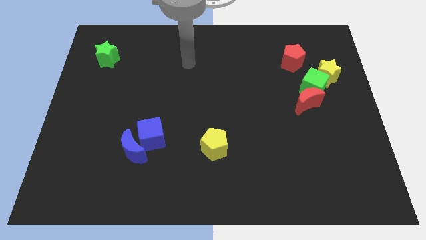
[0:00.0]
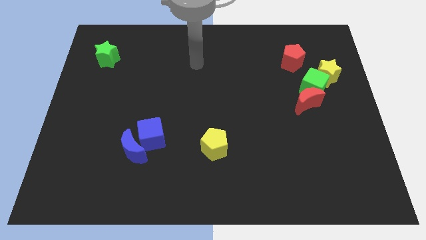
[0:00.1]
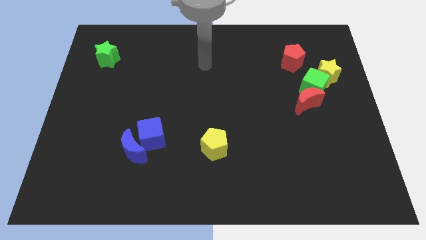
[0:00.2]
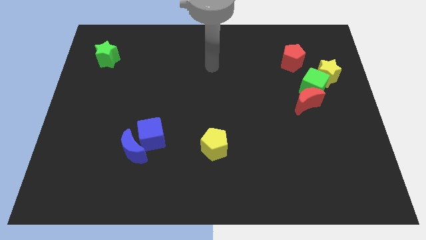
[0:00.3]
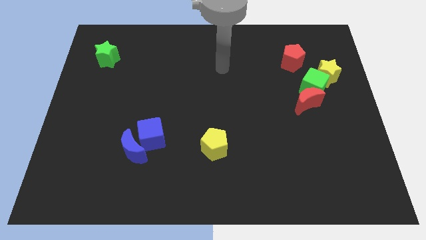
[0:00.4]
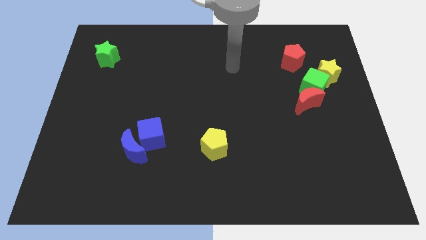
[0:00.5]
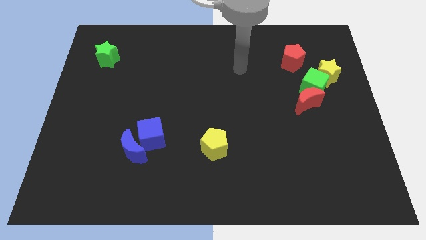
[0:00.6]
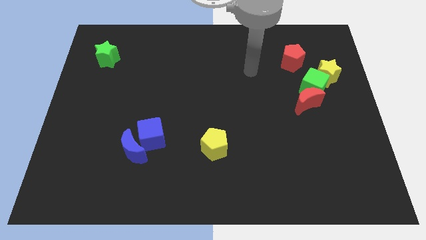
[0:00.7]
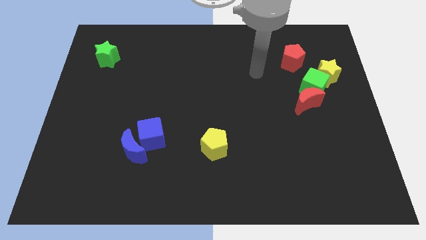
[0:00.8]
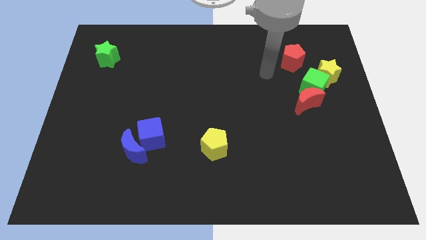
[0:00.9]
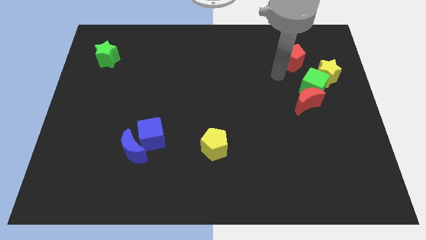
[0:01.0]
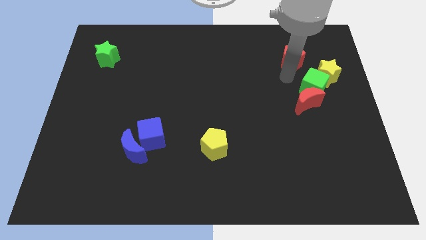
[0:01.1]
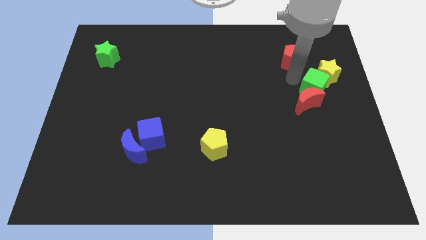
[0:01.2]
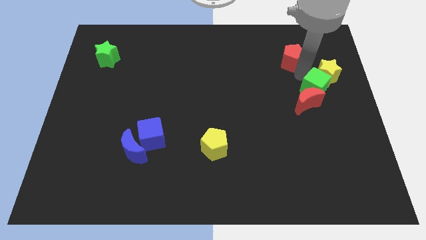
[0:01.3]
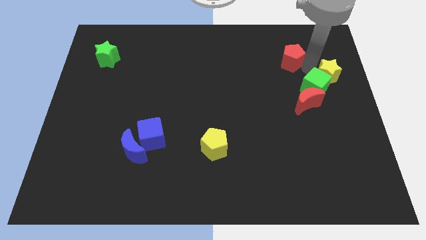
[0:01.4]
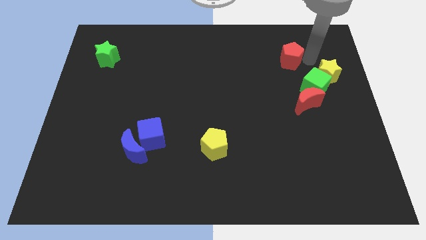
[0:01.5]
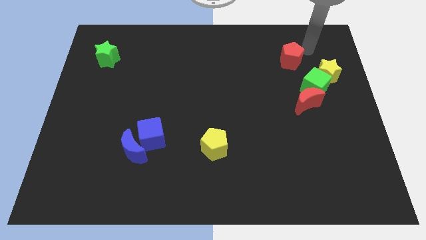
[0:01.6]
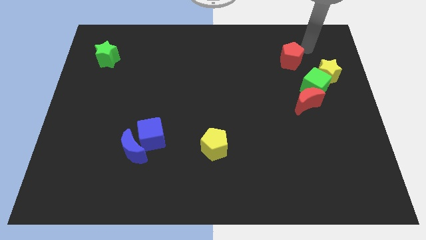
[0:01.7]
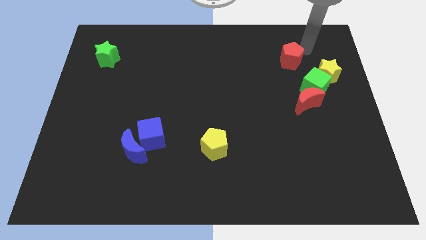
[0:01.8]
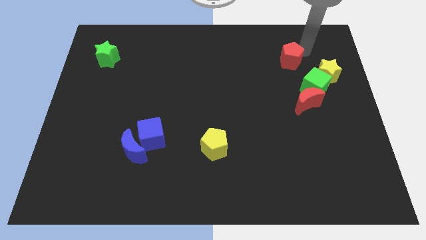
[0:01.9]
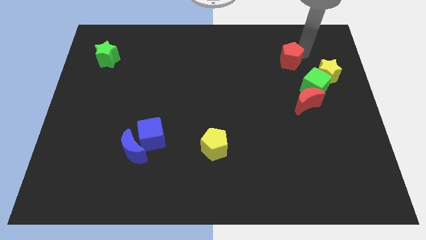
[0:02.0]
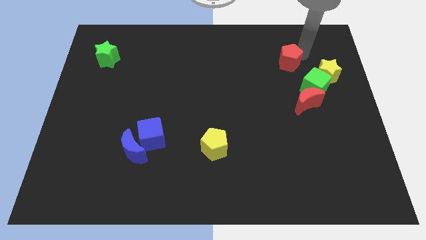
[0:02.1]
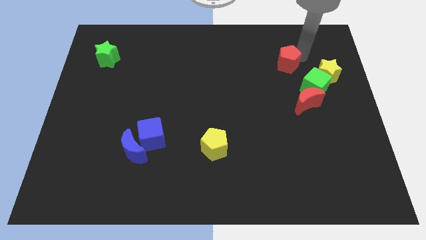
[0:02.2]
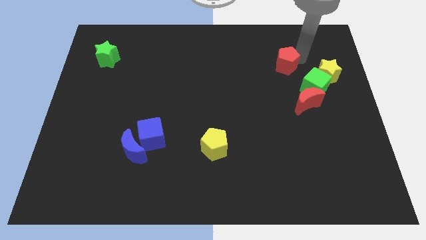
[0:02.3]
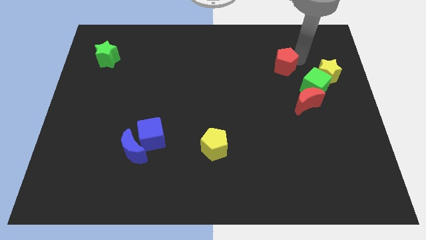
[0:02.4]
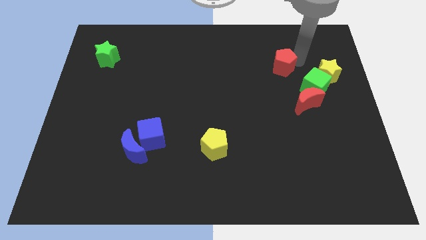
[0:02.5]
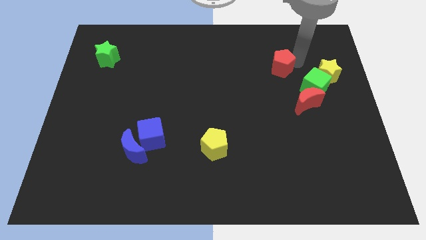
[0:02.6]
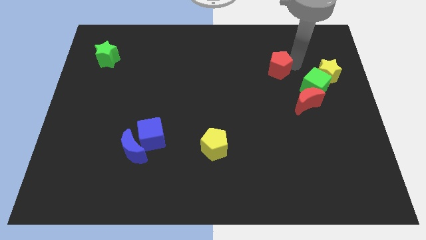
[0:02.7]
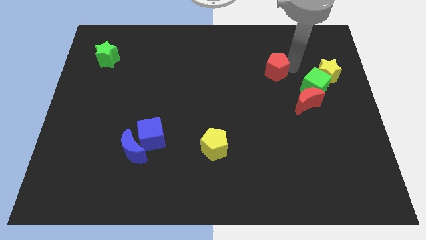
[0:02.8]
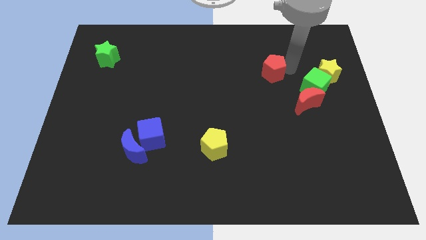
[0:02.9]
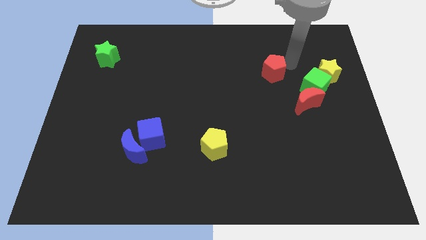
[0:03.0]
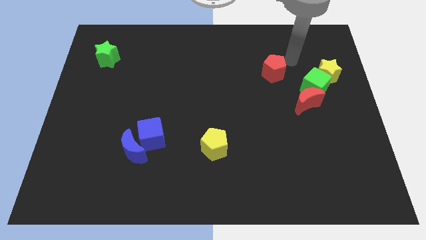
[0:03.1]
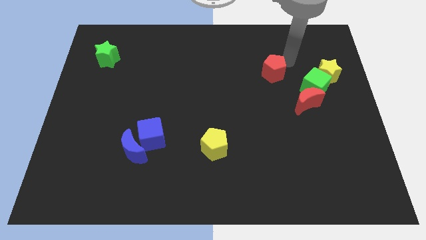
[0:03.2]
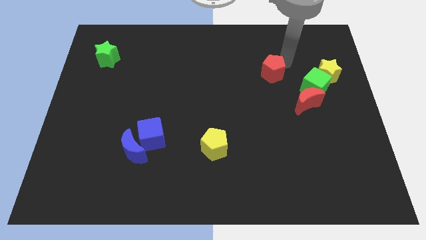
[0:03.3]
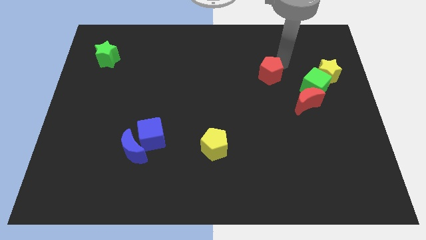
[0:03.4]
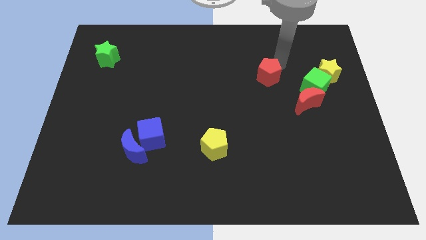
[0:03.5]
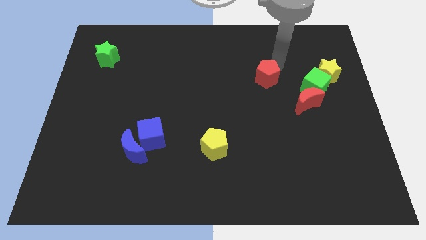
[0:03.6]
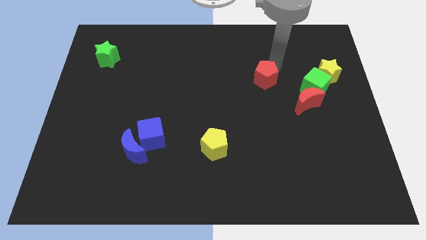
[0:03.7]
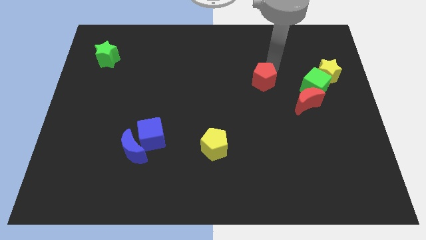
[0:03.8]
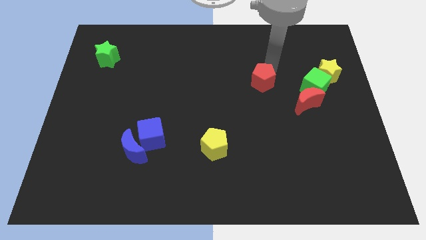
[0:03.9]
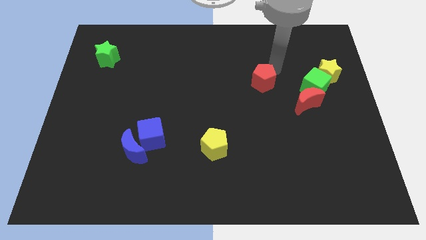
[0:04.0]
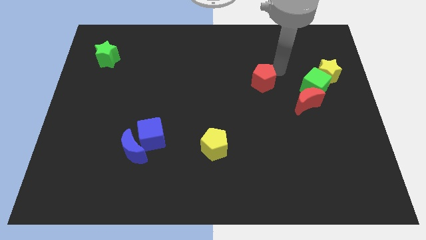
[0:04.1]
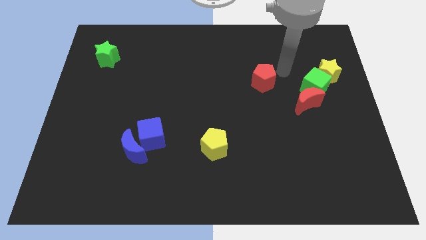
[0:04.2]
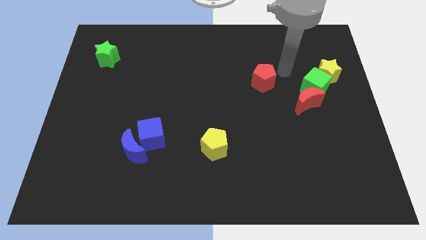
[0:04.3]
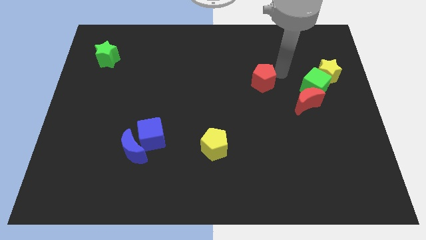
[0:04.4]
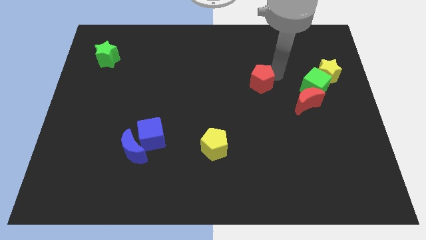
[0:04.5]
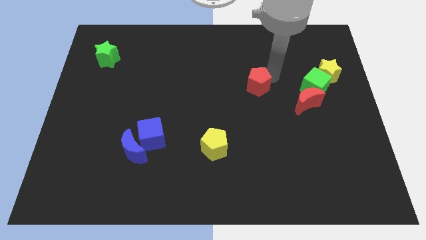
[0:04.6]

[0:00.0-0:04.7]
push the red pentagon to the center of the board

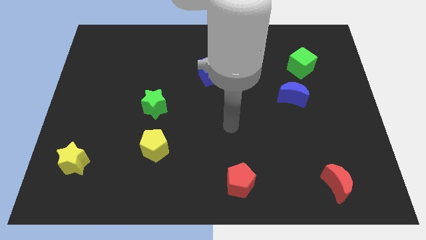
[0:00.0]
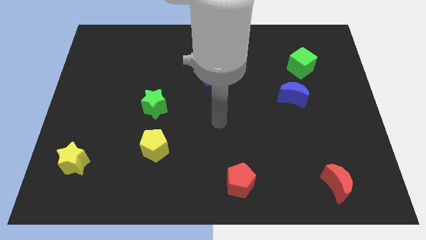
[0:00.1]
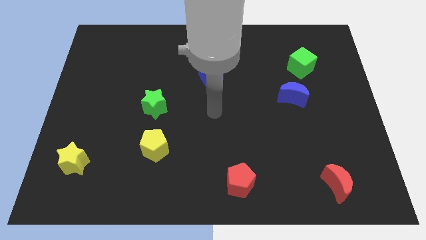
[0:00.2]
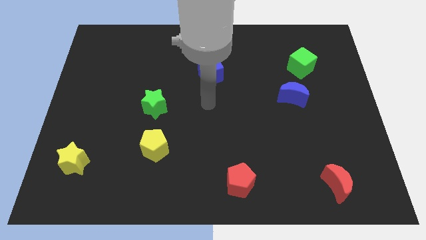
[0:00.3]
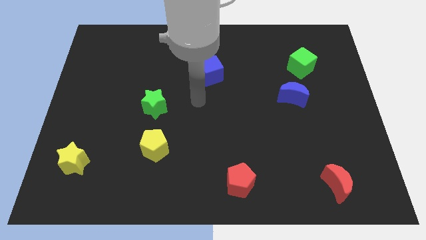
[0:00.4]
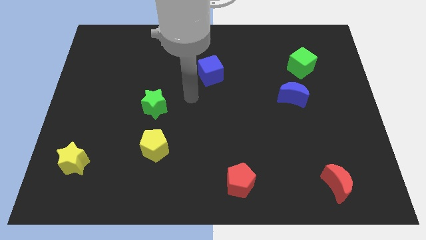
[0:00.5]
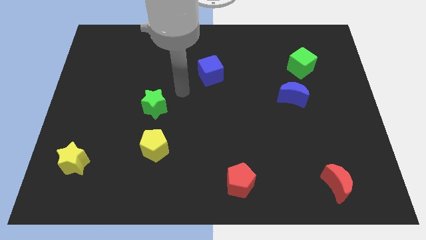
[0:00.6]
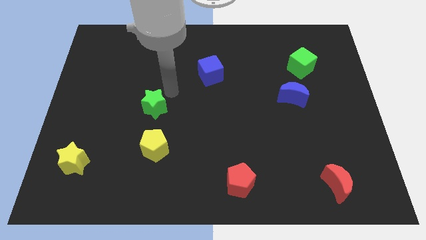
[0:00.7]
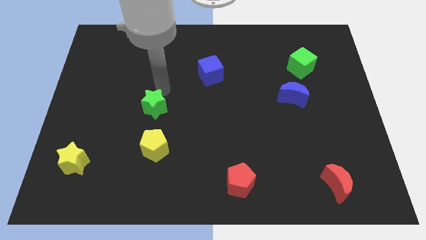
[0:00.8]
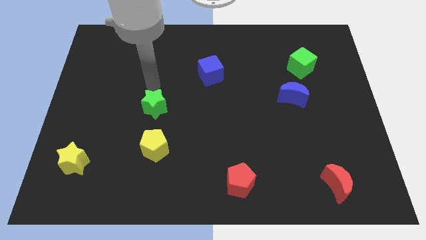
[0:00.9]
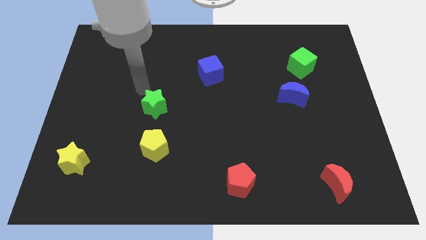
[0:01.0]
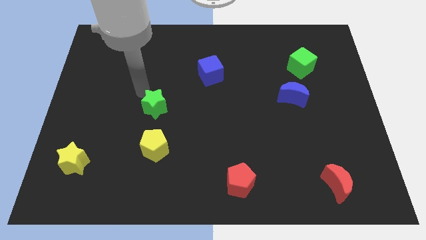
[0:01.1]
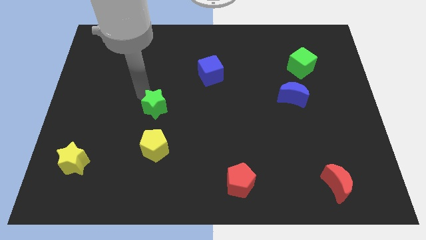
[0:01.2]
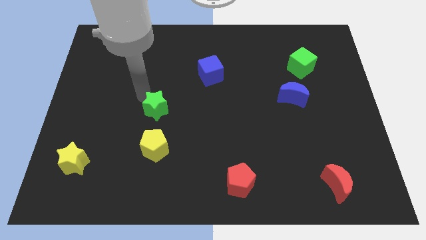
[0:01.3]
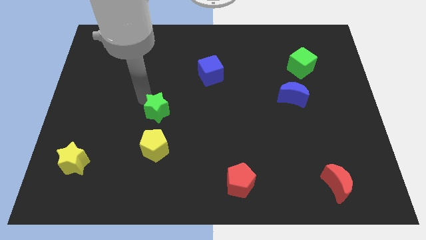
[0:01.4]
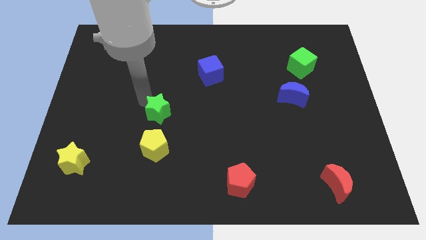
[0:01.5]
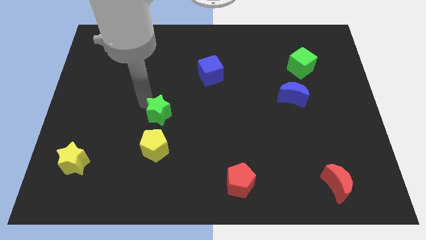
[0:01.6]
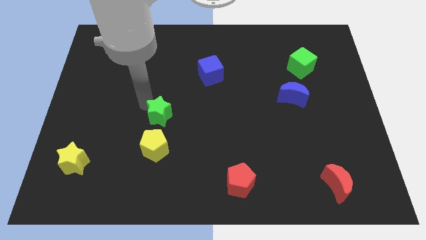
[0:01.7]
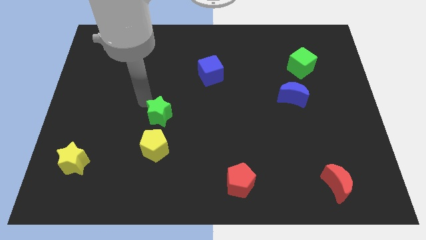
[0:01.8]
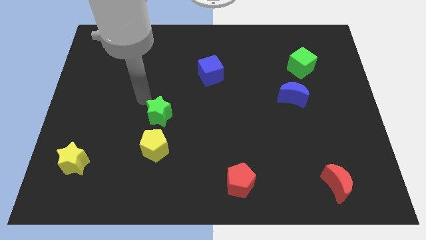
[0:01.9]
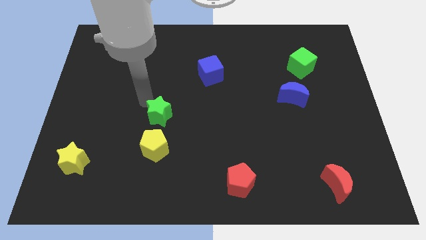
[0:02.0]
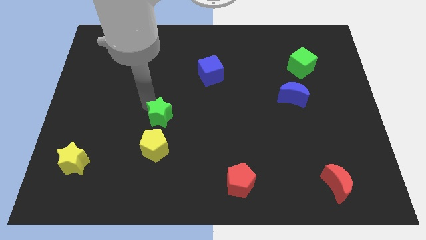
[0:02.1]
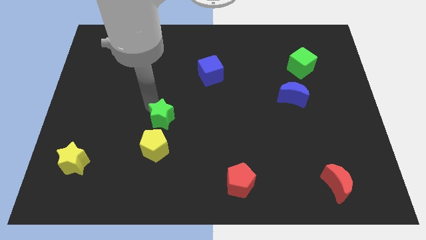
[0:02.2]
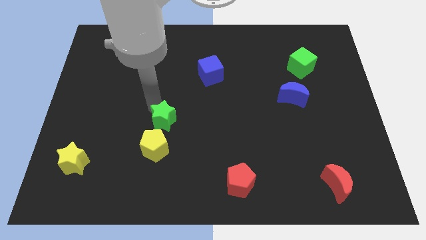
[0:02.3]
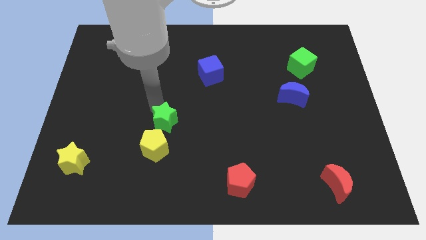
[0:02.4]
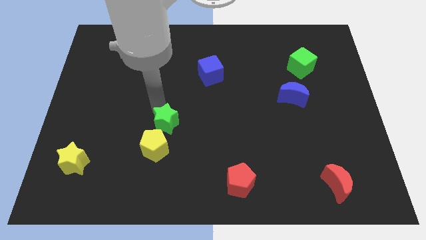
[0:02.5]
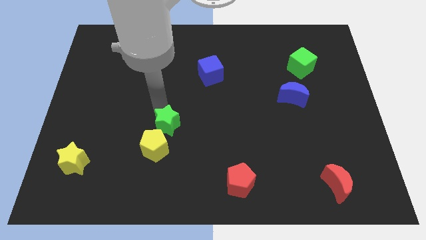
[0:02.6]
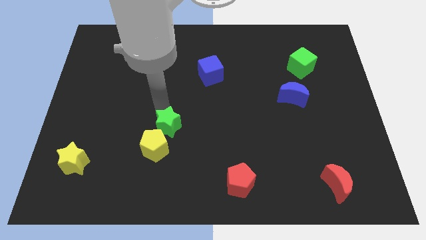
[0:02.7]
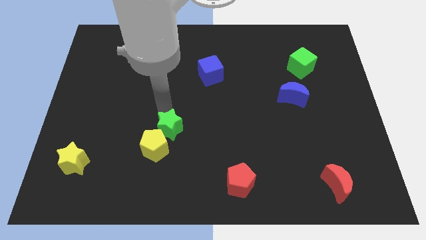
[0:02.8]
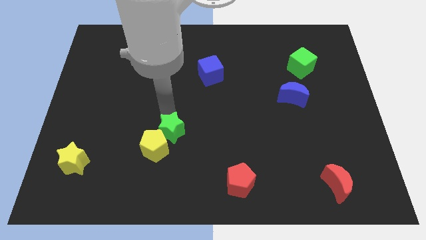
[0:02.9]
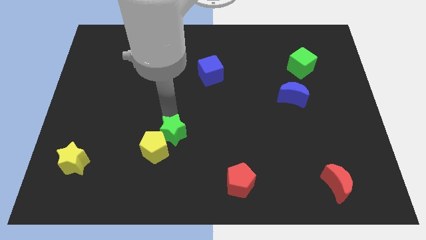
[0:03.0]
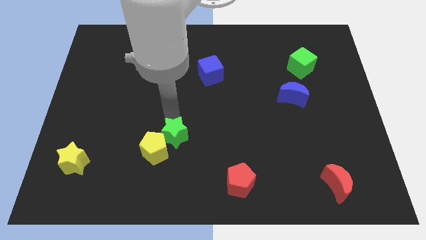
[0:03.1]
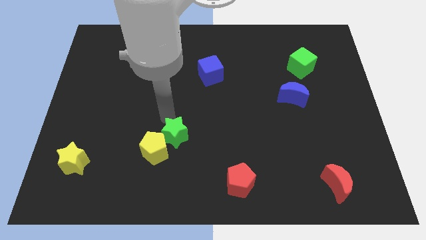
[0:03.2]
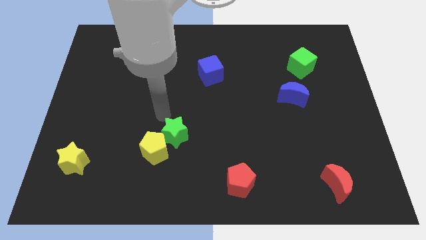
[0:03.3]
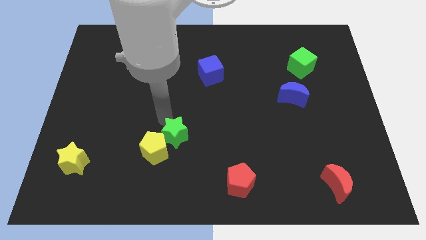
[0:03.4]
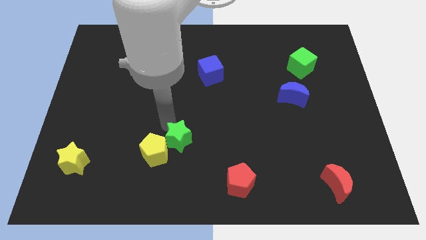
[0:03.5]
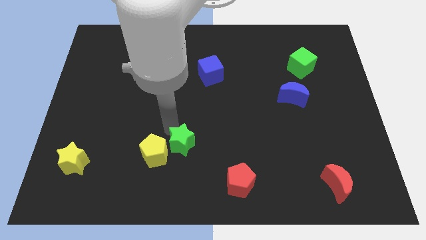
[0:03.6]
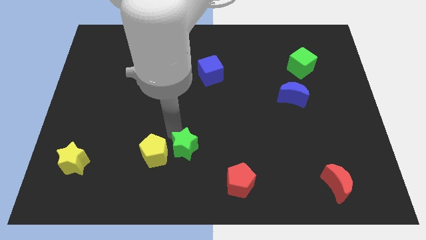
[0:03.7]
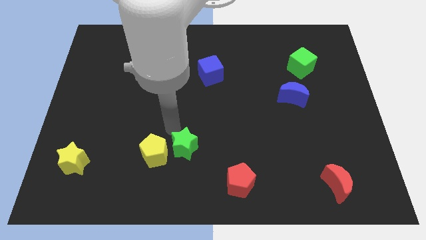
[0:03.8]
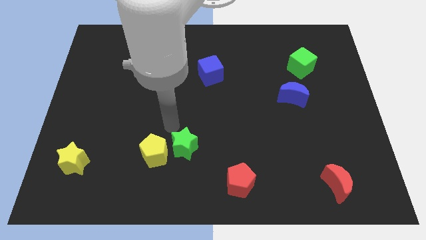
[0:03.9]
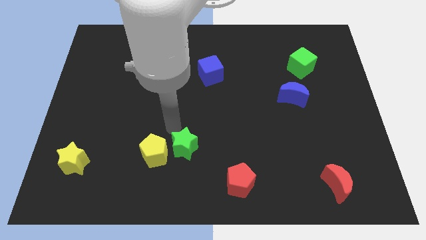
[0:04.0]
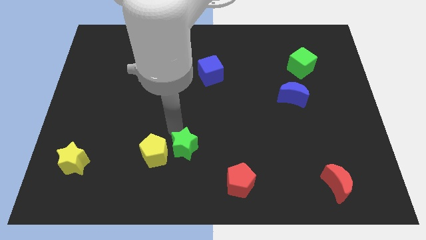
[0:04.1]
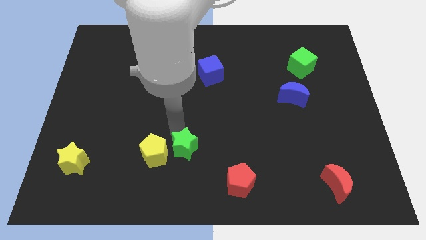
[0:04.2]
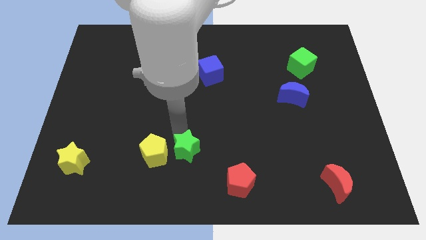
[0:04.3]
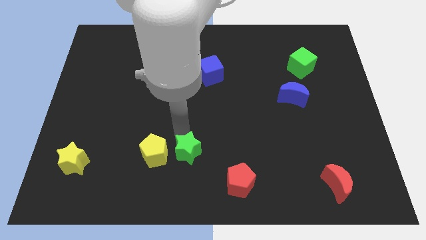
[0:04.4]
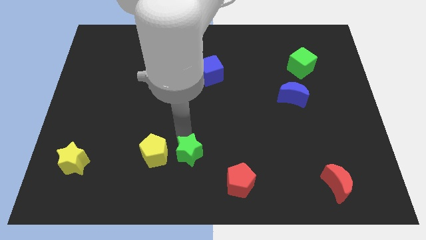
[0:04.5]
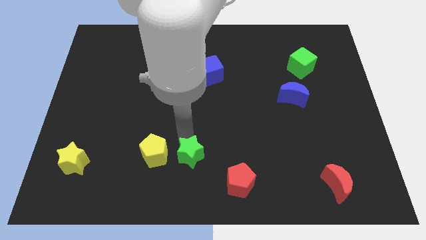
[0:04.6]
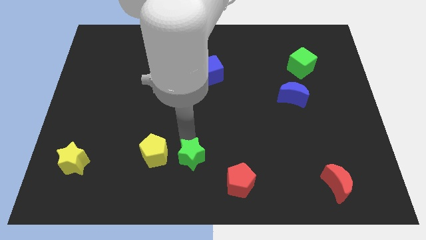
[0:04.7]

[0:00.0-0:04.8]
slide the green star to the bottom
